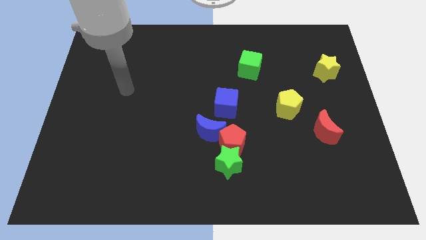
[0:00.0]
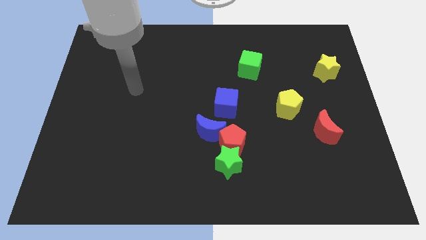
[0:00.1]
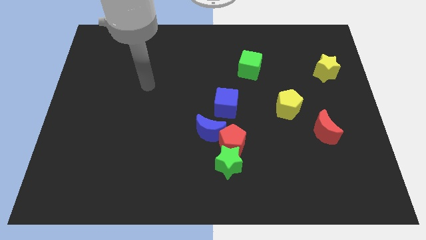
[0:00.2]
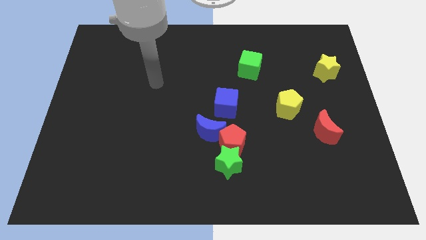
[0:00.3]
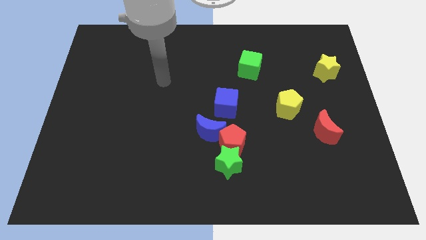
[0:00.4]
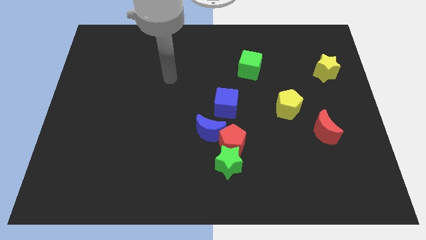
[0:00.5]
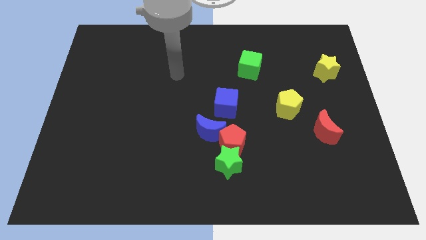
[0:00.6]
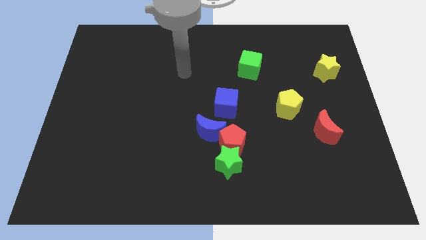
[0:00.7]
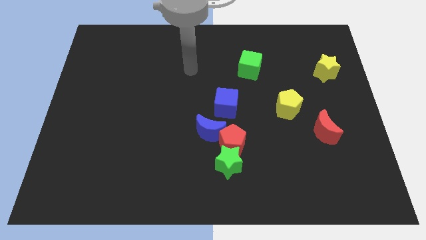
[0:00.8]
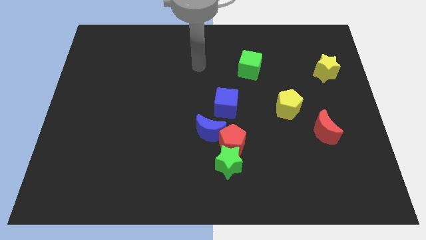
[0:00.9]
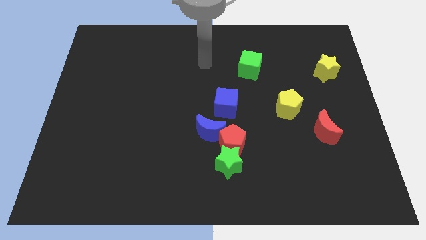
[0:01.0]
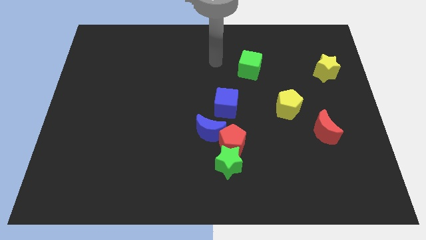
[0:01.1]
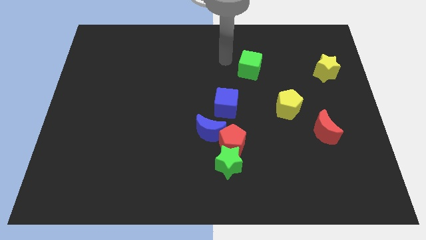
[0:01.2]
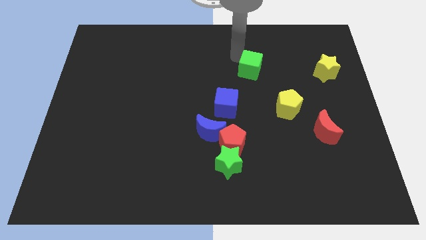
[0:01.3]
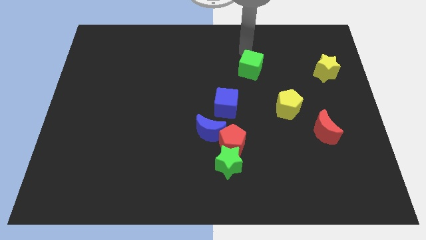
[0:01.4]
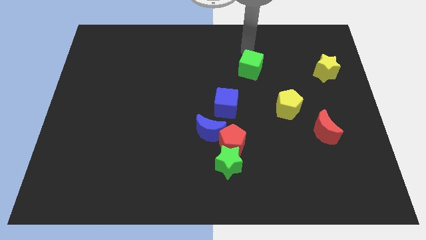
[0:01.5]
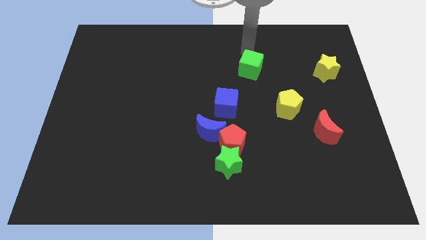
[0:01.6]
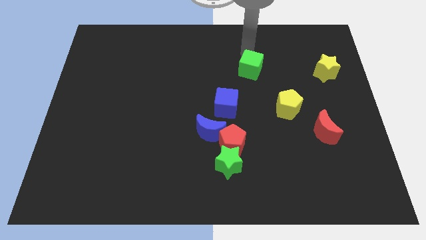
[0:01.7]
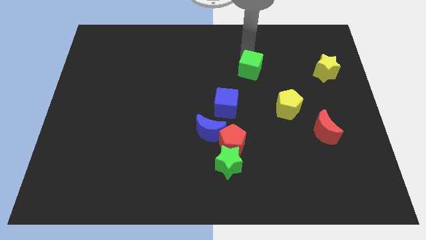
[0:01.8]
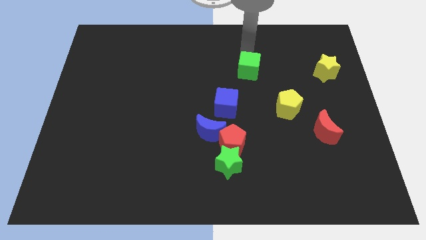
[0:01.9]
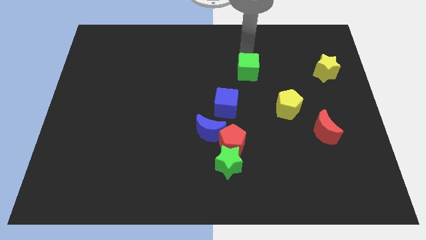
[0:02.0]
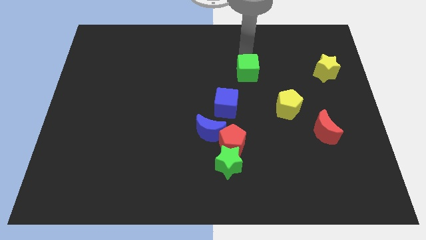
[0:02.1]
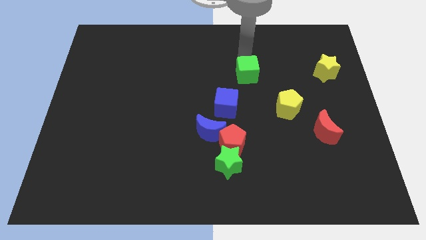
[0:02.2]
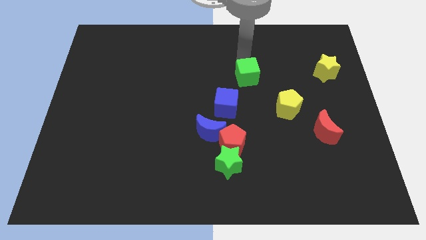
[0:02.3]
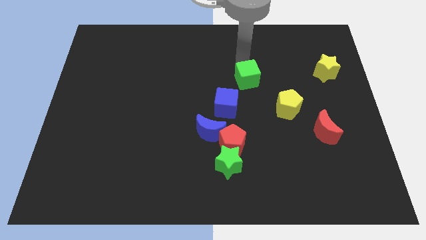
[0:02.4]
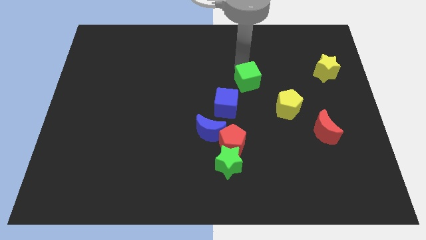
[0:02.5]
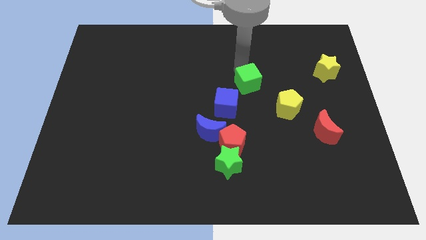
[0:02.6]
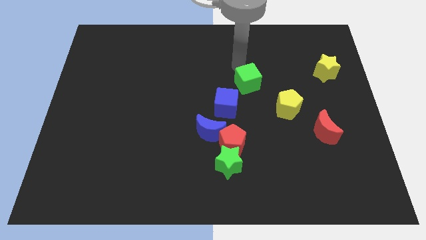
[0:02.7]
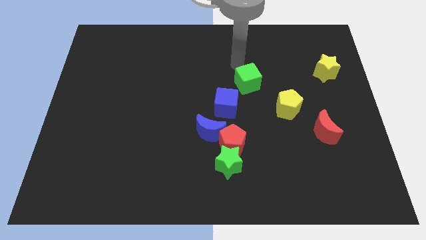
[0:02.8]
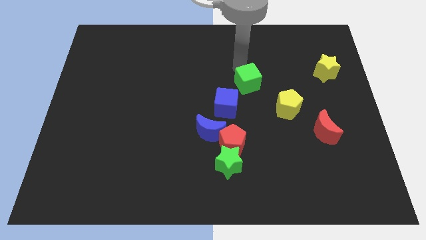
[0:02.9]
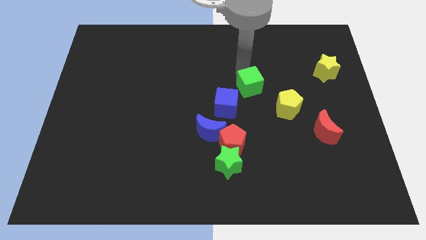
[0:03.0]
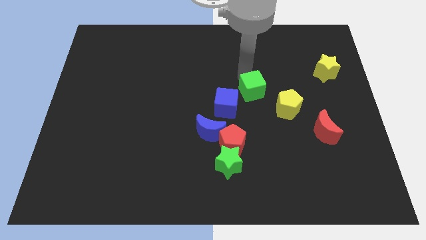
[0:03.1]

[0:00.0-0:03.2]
push the green cube down slightly

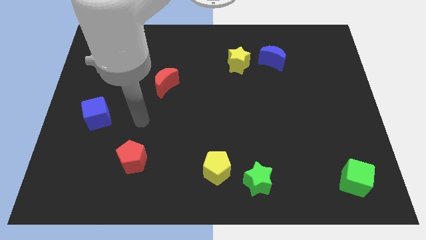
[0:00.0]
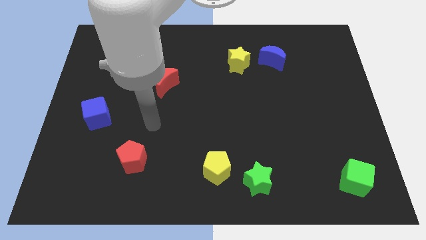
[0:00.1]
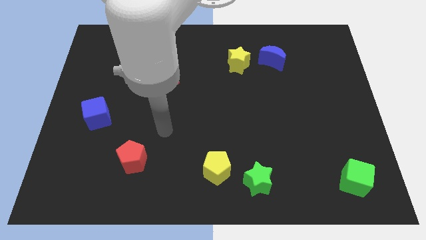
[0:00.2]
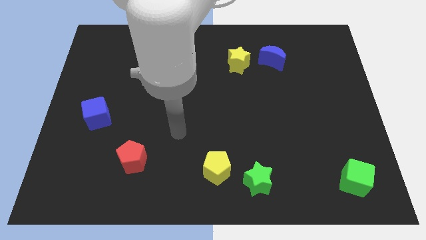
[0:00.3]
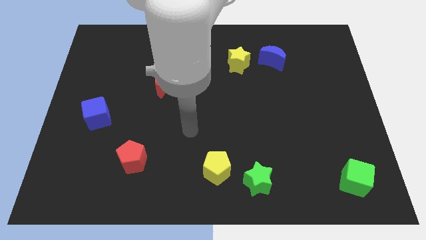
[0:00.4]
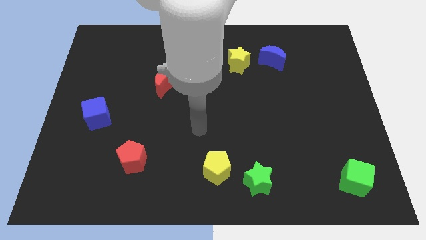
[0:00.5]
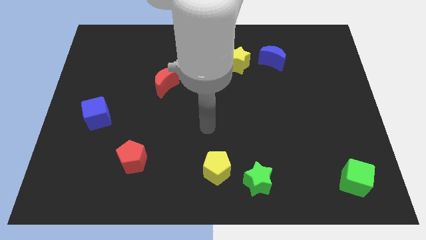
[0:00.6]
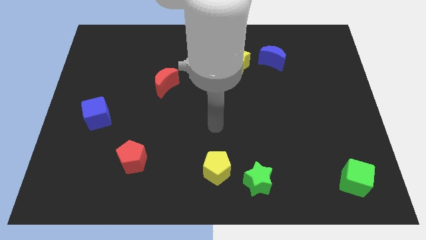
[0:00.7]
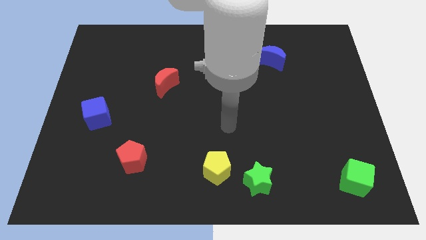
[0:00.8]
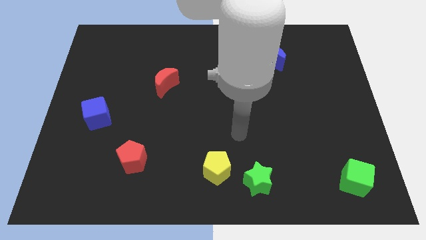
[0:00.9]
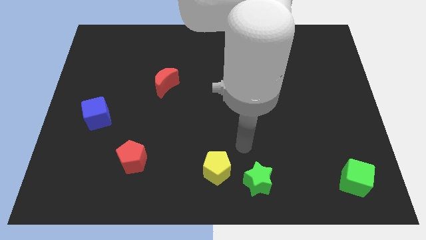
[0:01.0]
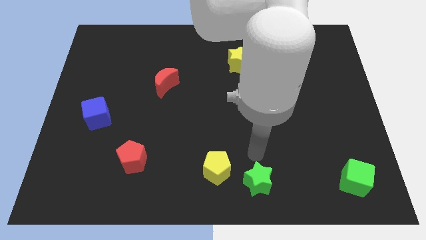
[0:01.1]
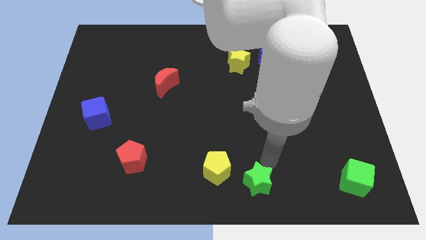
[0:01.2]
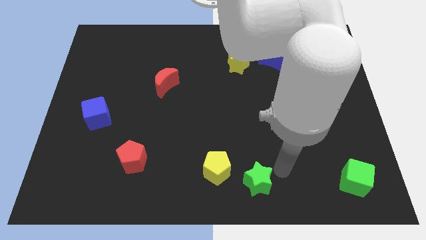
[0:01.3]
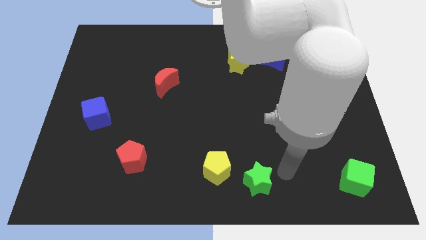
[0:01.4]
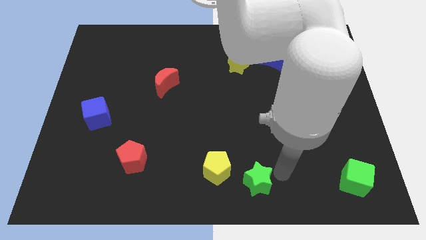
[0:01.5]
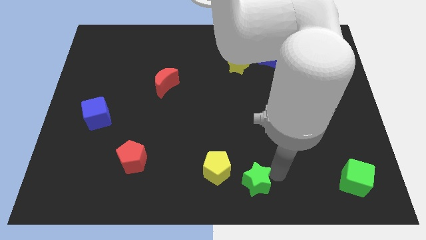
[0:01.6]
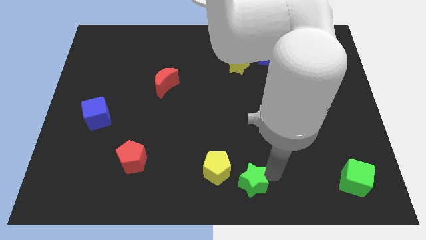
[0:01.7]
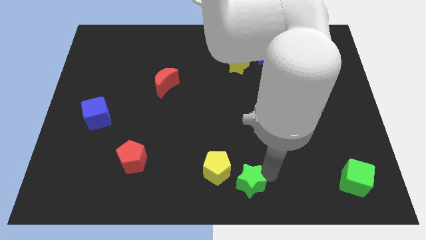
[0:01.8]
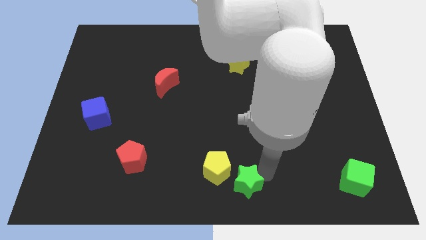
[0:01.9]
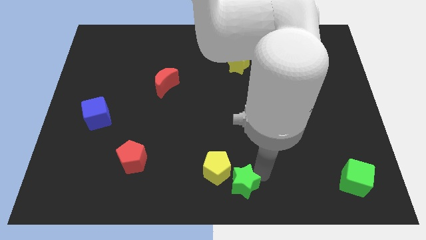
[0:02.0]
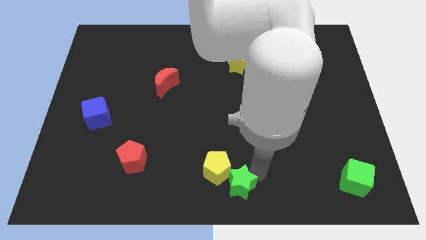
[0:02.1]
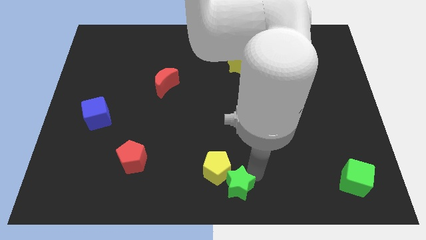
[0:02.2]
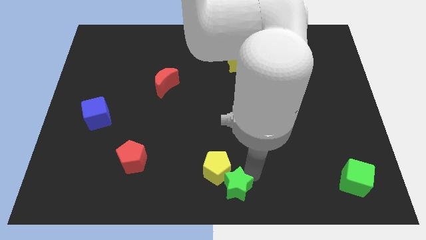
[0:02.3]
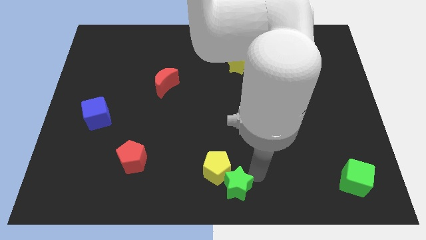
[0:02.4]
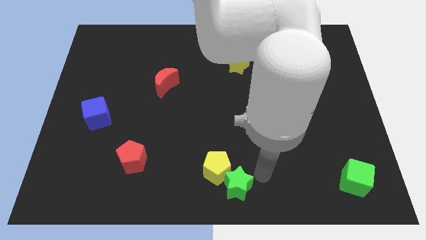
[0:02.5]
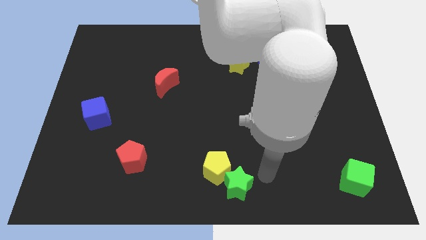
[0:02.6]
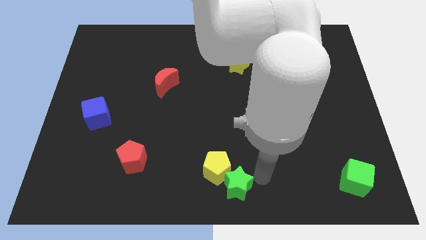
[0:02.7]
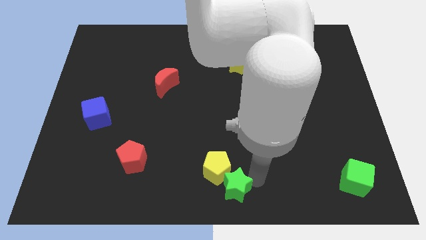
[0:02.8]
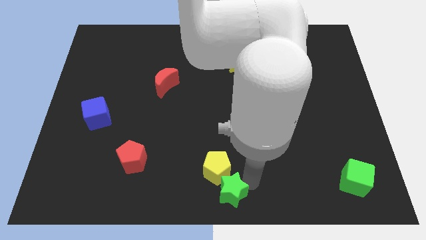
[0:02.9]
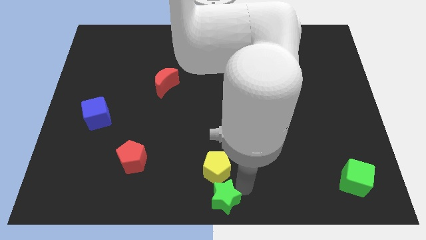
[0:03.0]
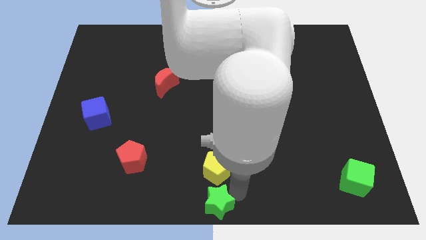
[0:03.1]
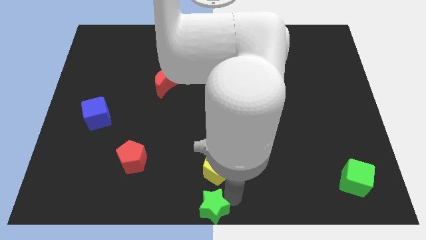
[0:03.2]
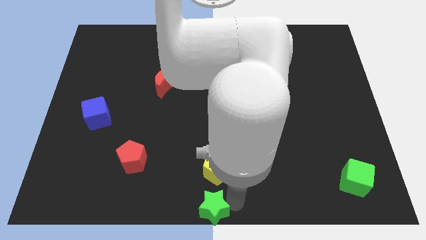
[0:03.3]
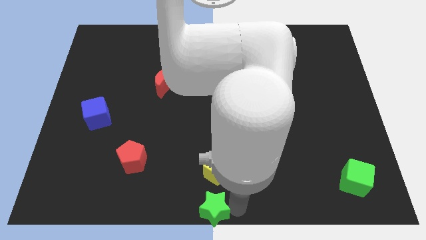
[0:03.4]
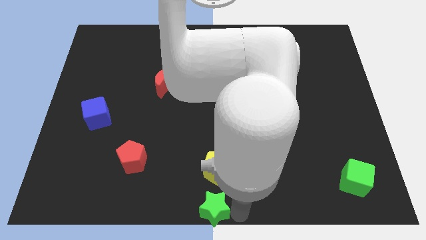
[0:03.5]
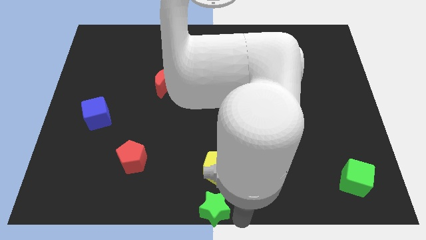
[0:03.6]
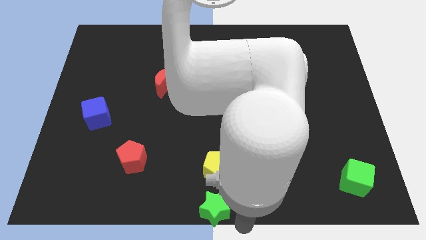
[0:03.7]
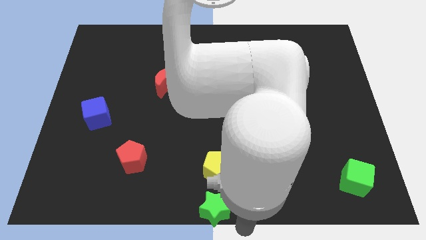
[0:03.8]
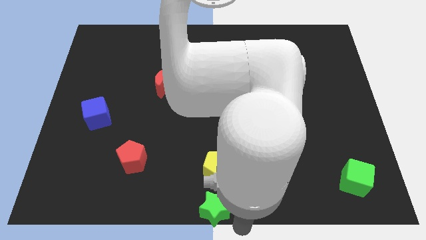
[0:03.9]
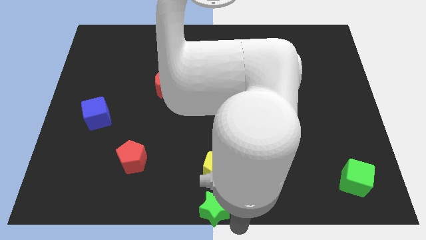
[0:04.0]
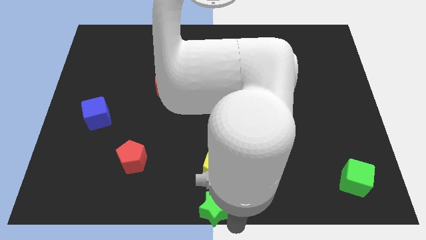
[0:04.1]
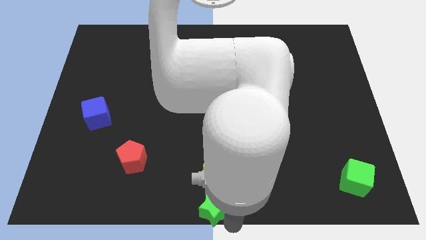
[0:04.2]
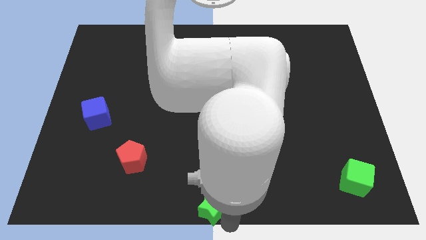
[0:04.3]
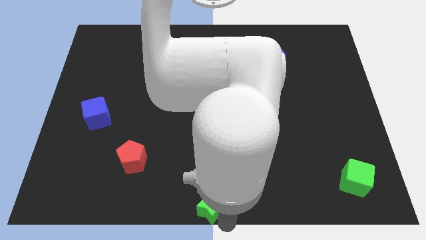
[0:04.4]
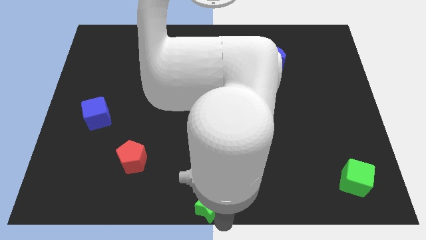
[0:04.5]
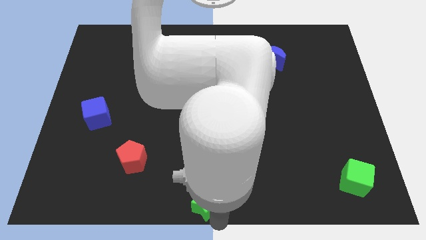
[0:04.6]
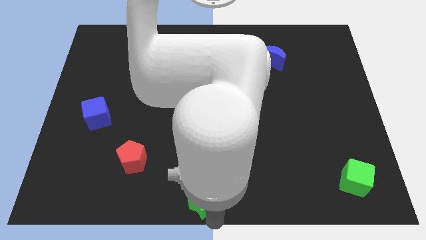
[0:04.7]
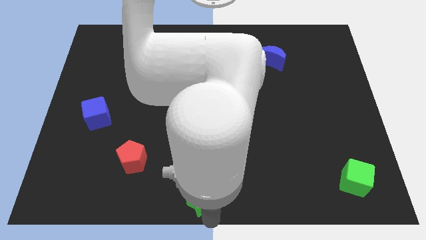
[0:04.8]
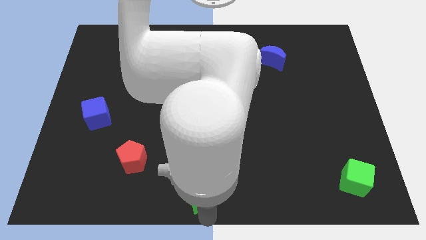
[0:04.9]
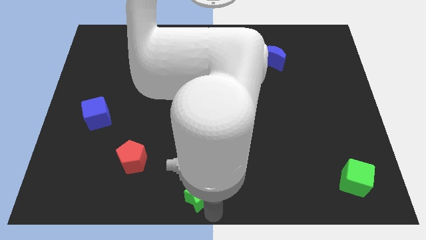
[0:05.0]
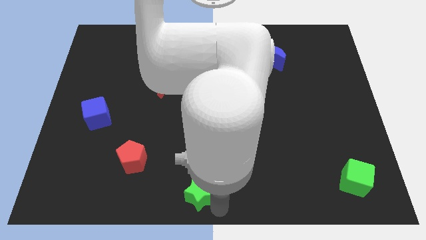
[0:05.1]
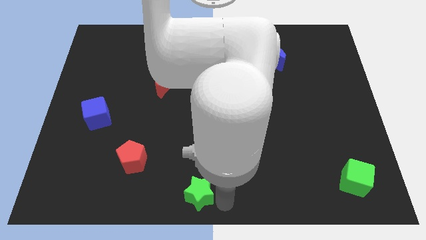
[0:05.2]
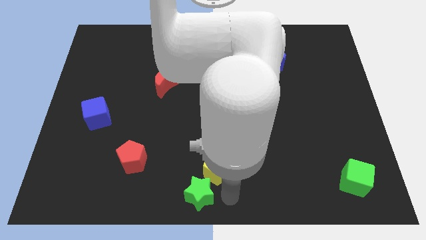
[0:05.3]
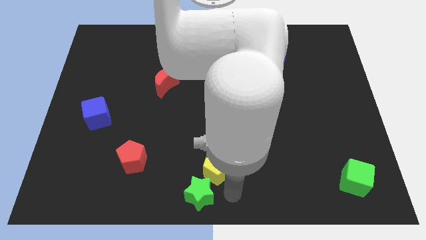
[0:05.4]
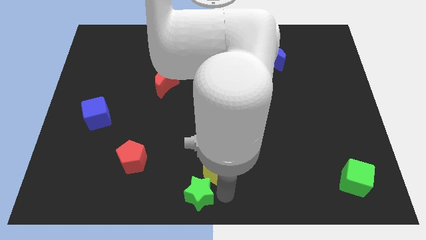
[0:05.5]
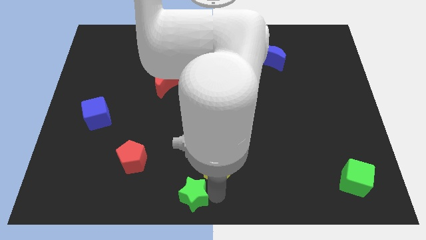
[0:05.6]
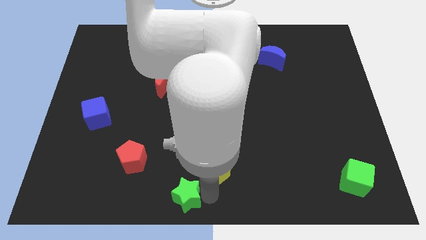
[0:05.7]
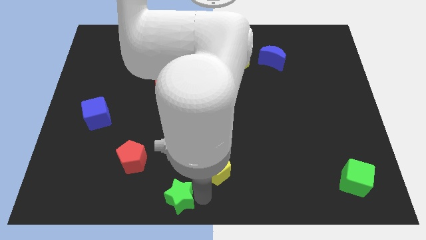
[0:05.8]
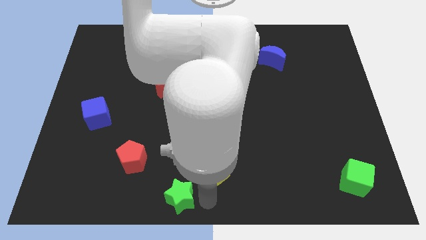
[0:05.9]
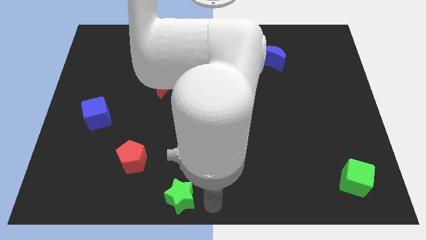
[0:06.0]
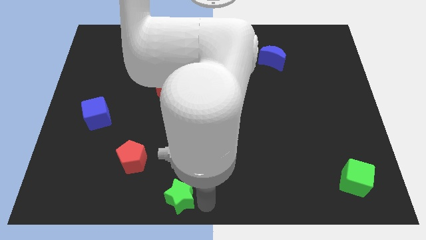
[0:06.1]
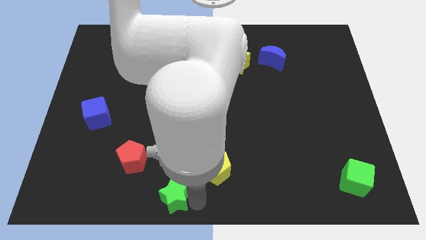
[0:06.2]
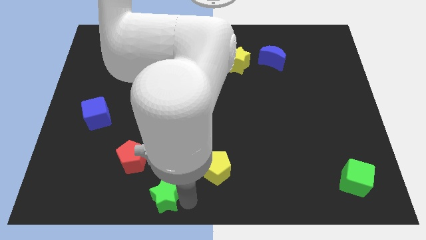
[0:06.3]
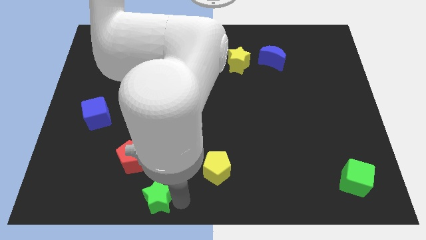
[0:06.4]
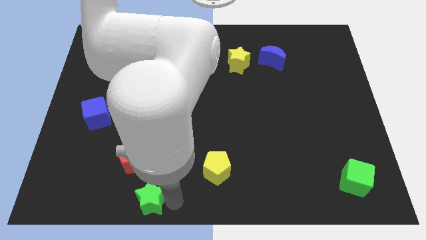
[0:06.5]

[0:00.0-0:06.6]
move the green star to the left
